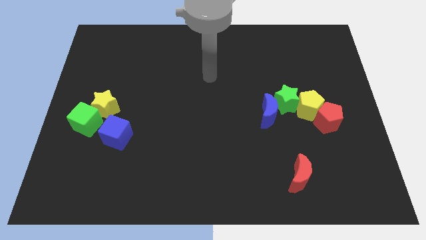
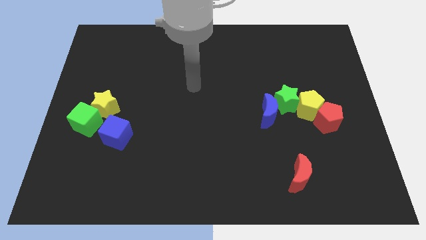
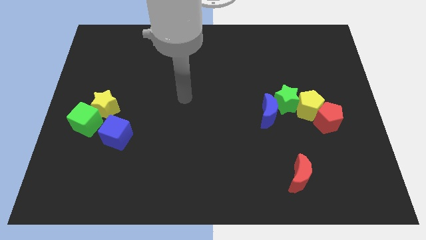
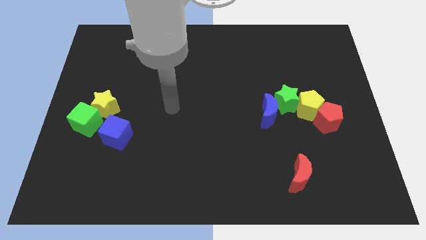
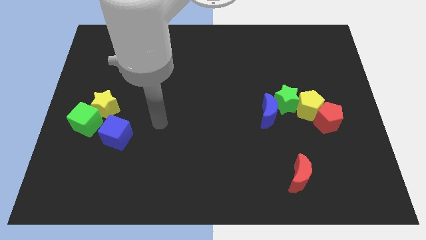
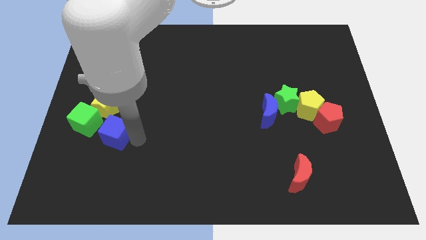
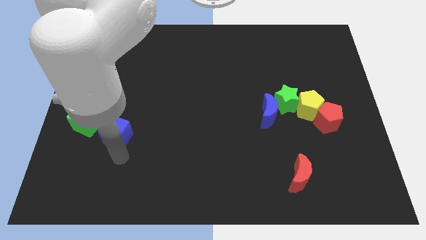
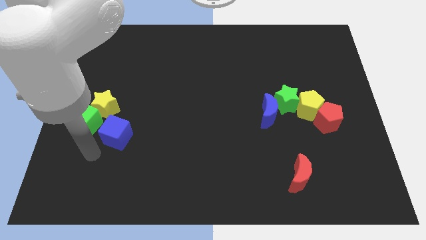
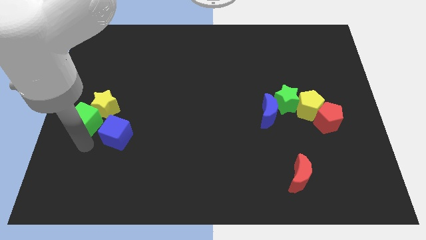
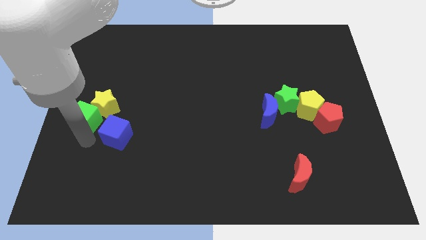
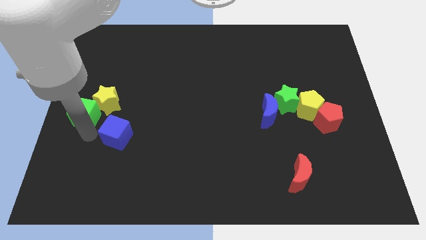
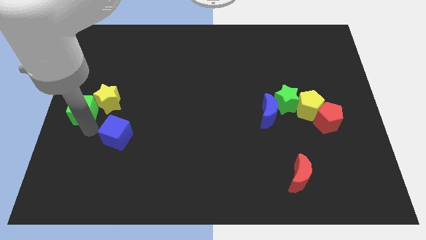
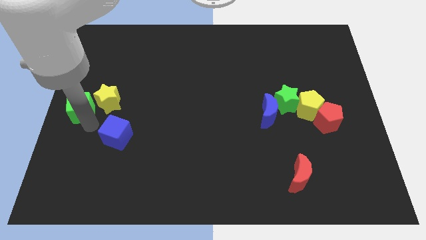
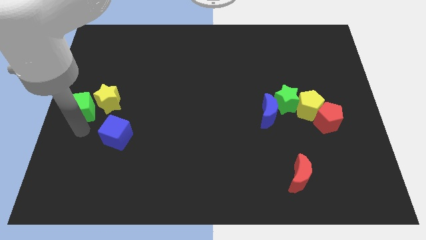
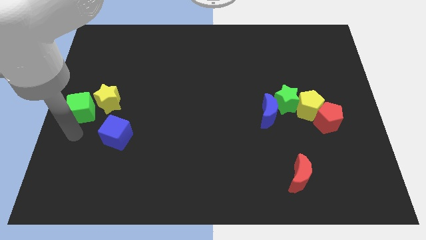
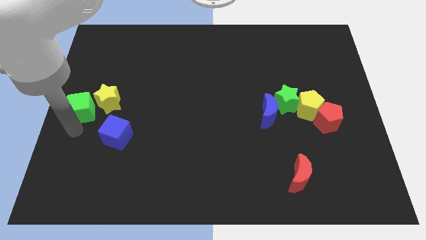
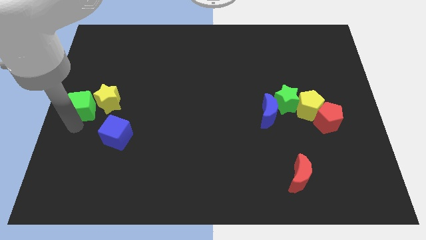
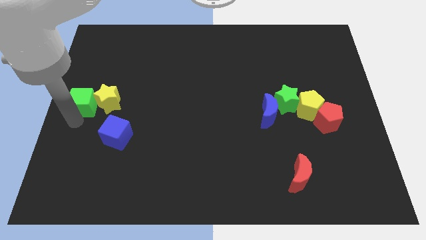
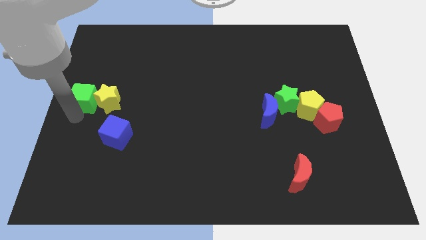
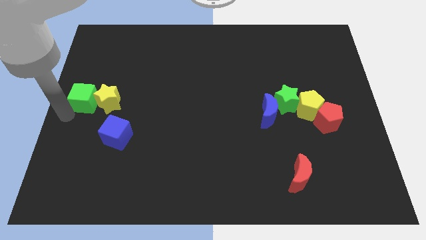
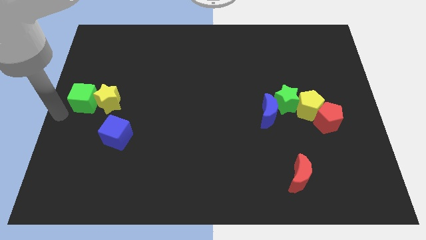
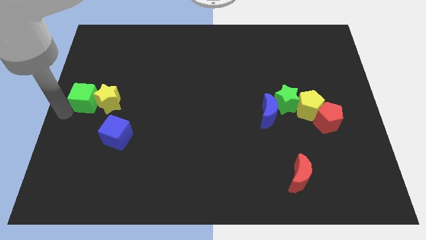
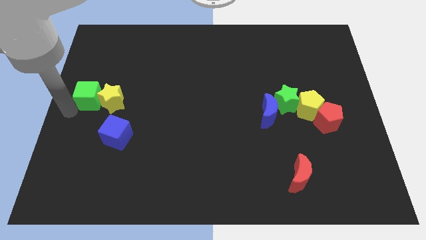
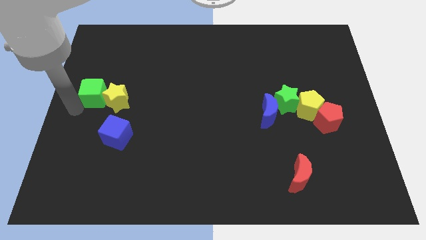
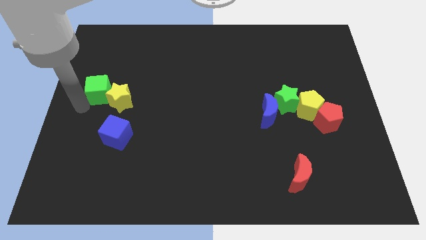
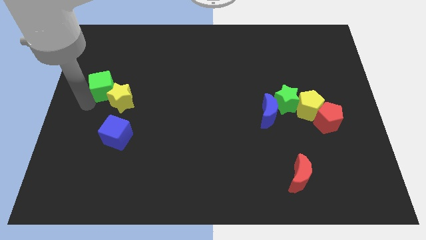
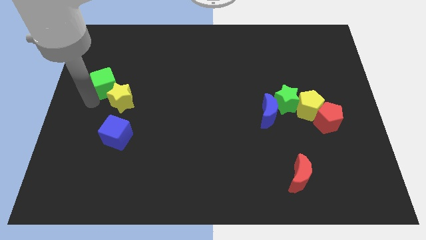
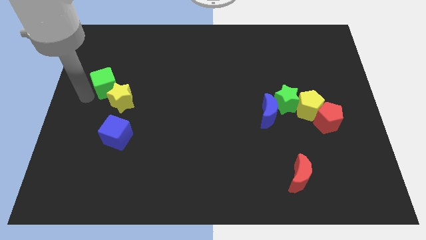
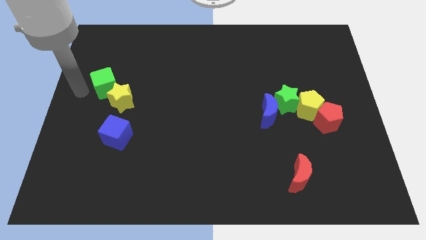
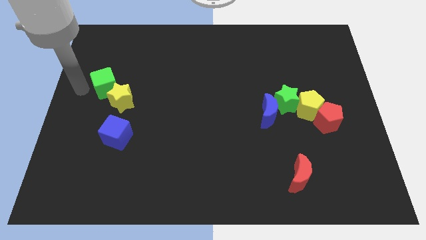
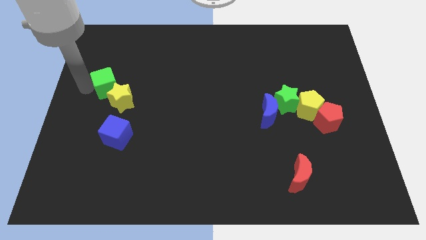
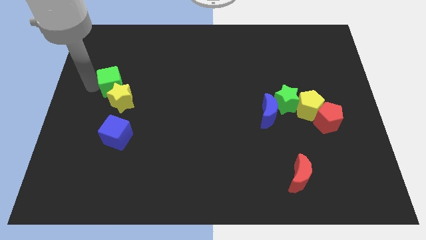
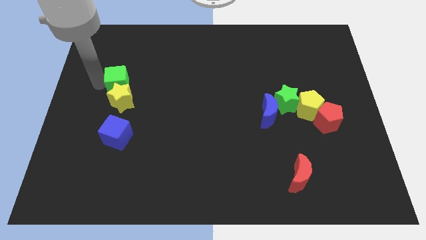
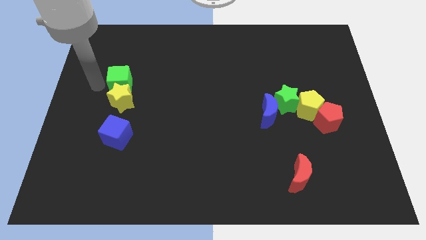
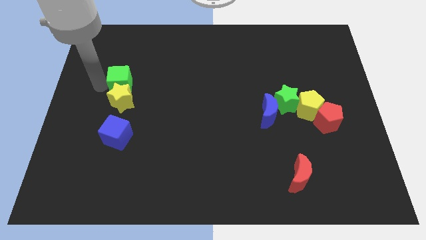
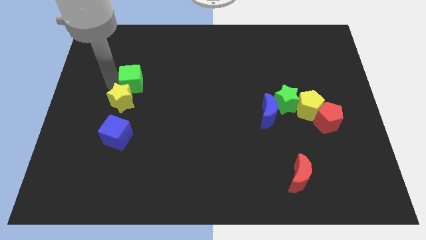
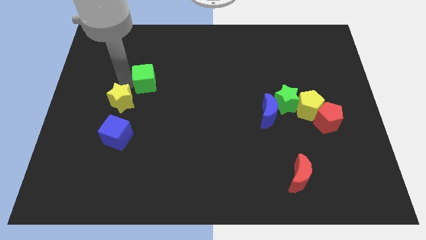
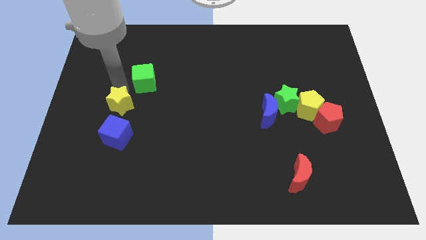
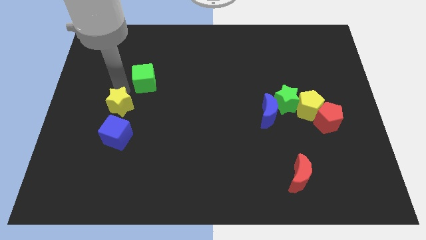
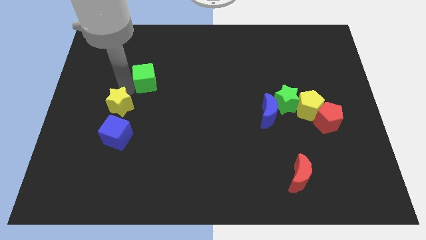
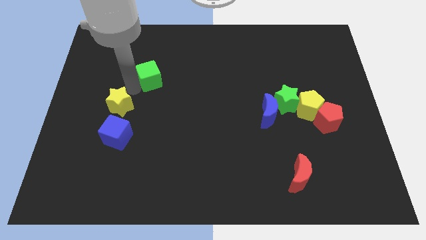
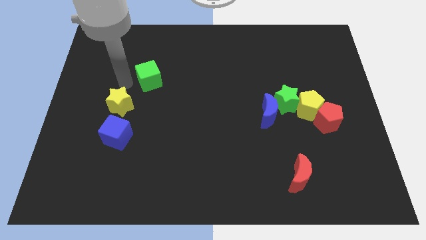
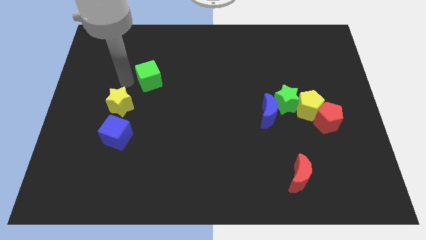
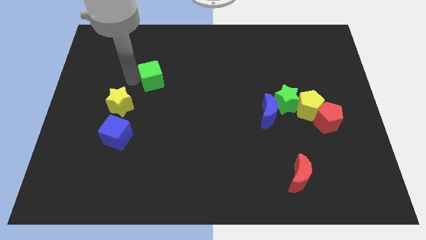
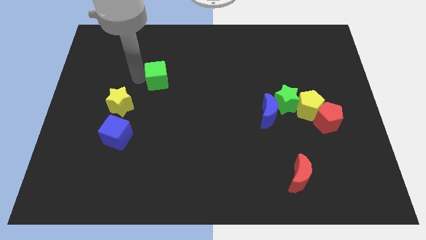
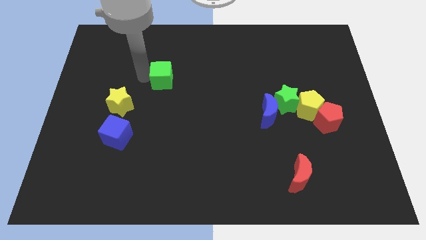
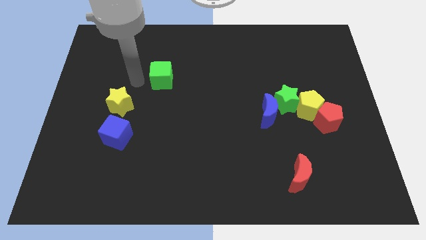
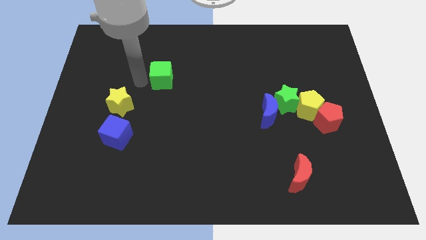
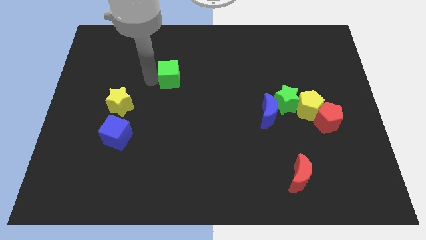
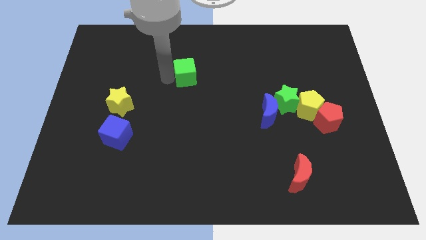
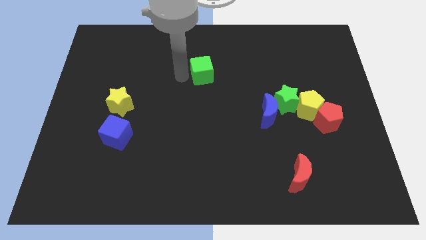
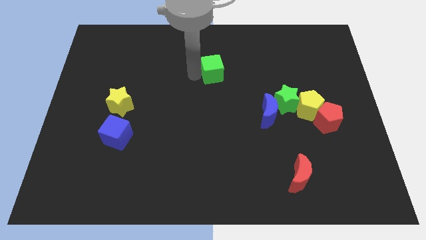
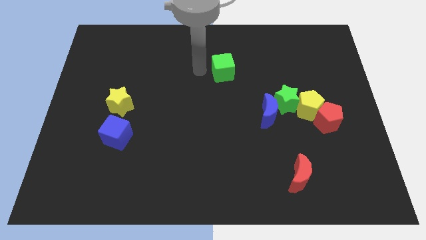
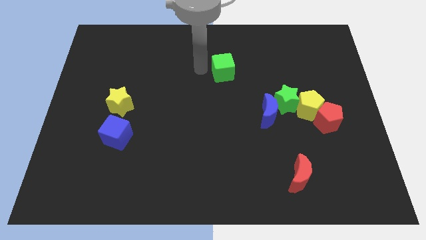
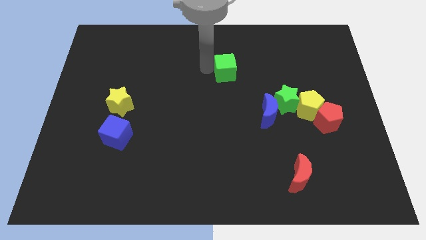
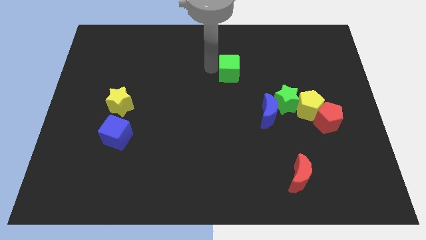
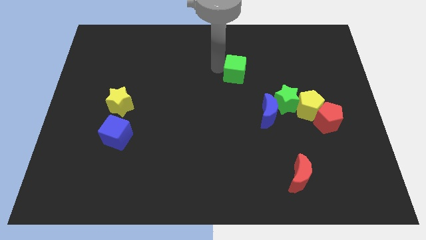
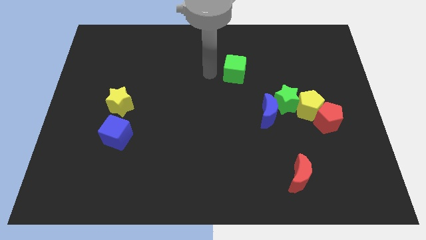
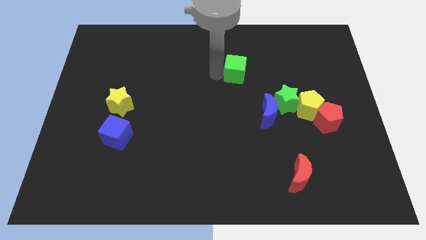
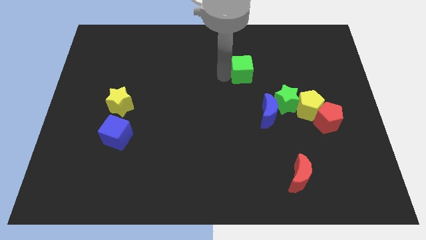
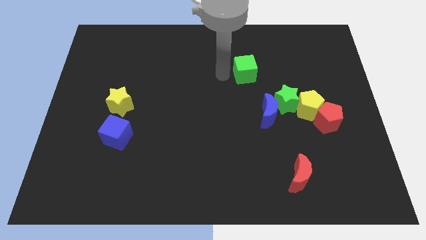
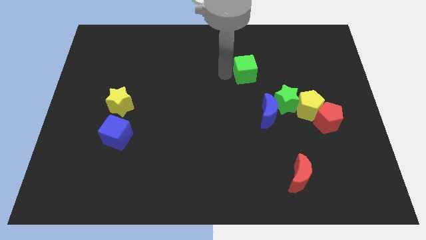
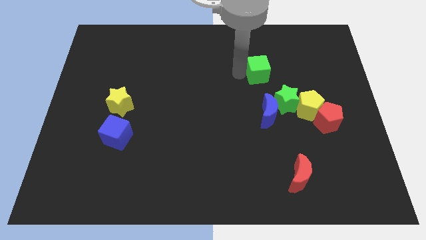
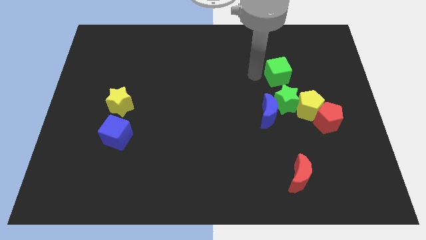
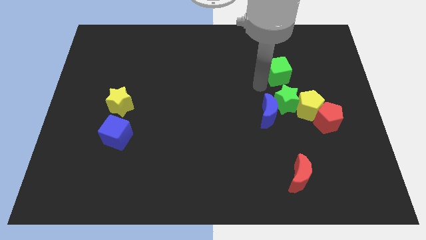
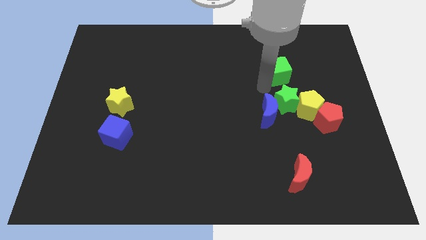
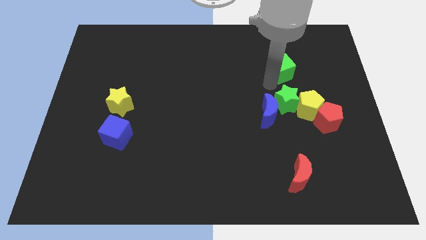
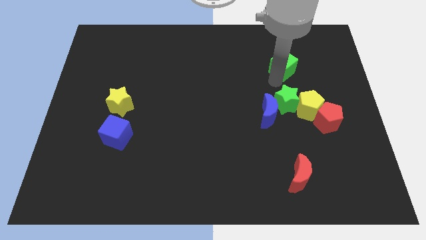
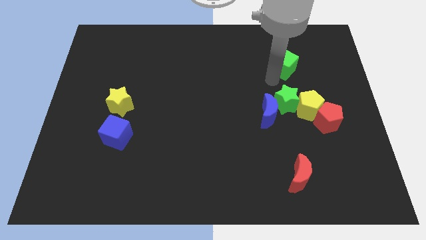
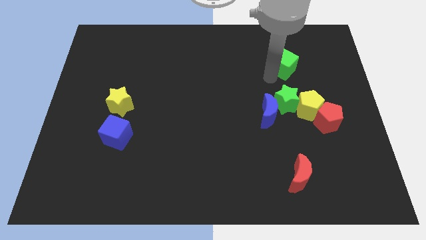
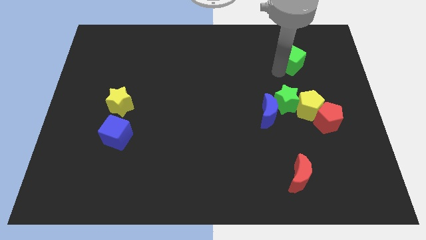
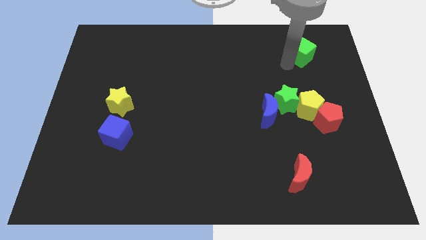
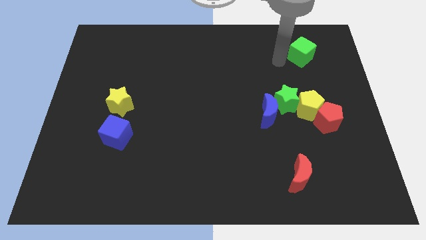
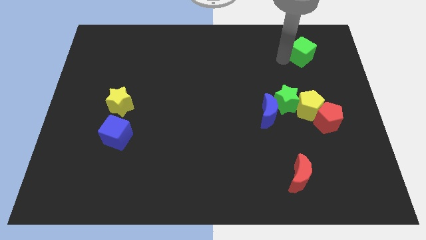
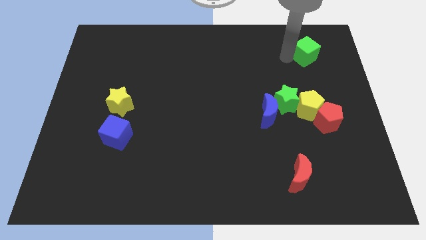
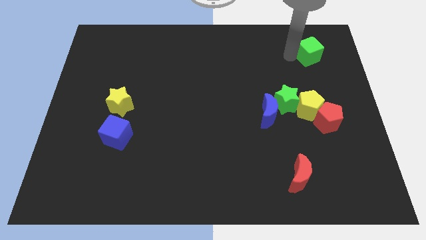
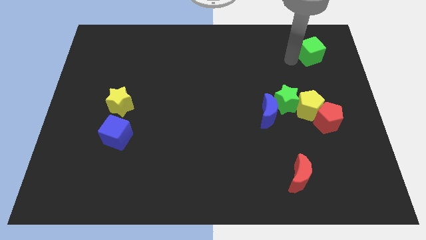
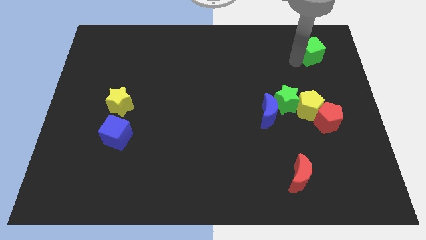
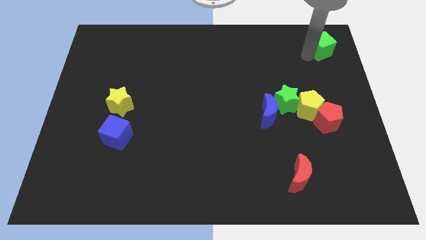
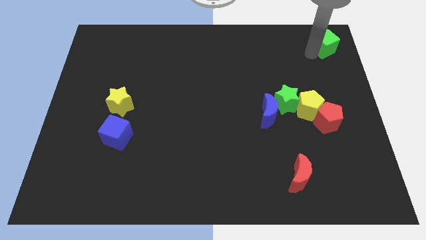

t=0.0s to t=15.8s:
put the green cube to the top right
